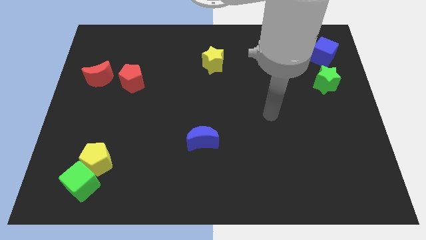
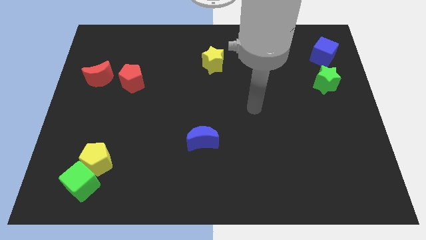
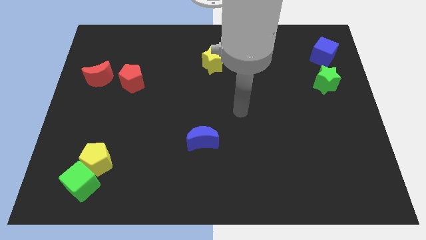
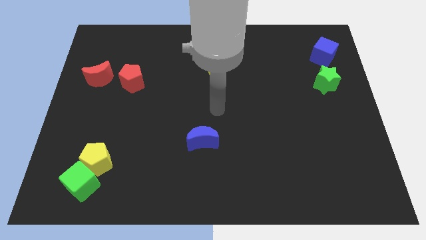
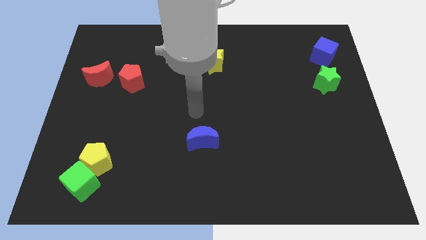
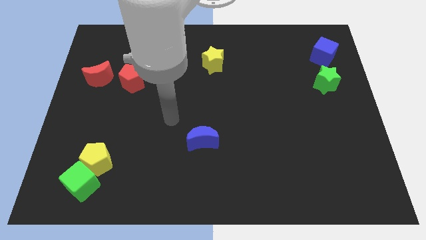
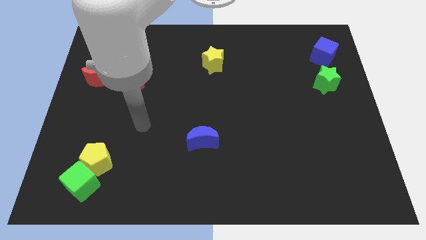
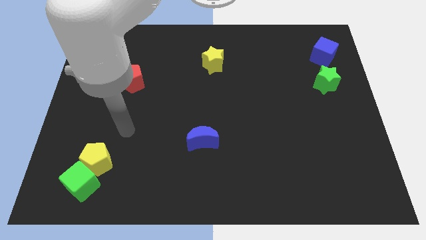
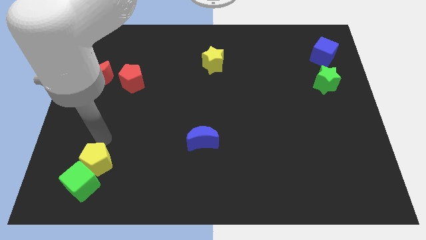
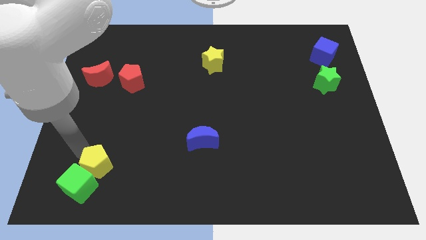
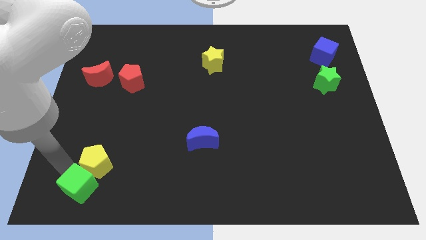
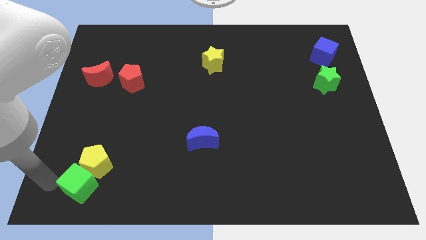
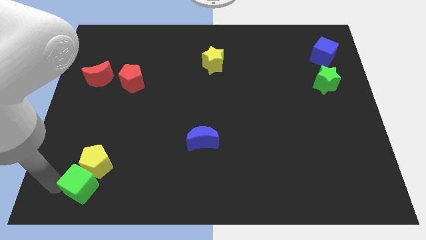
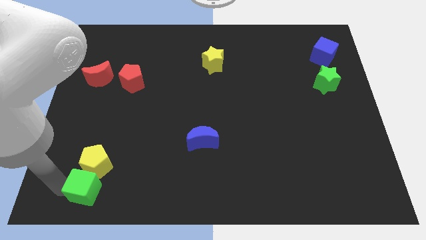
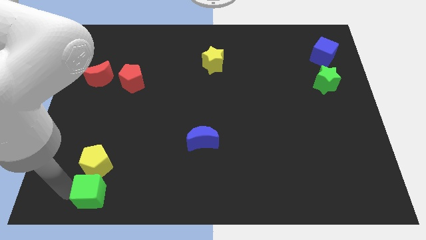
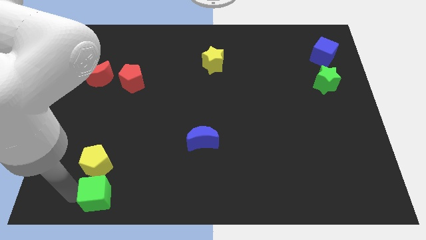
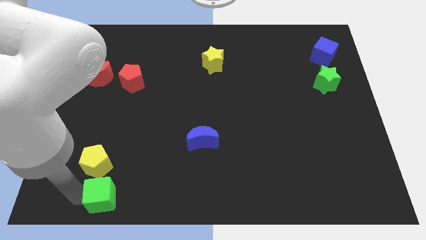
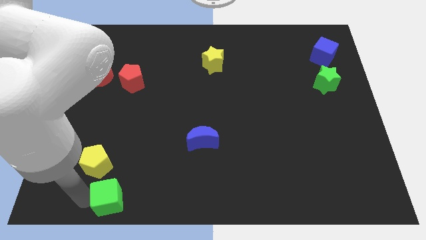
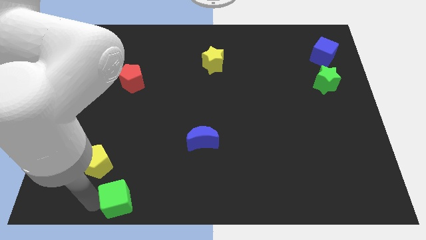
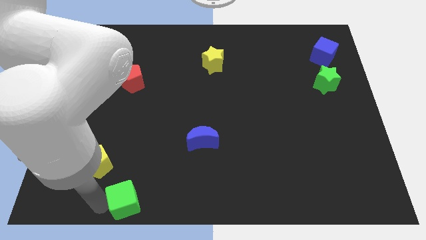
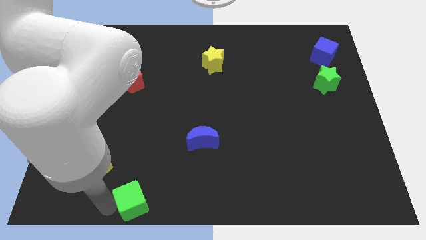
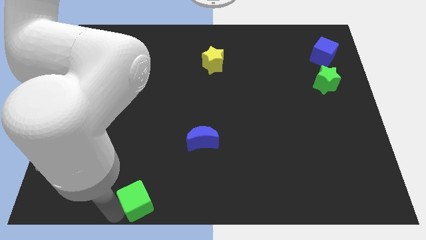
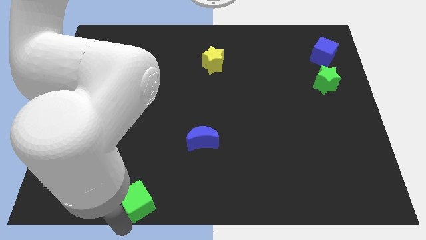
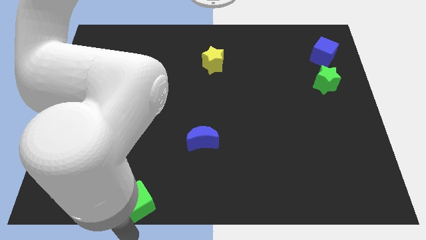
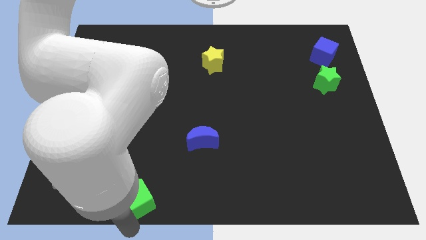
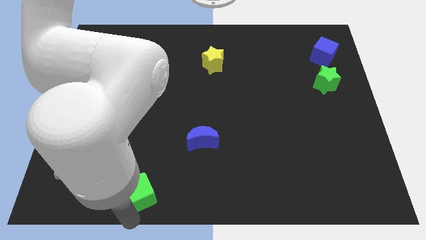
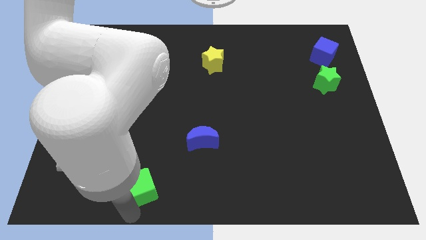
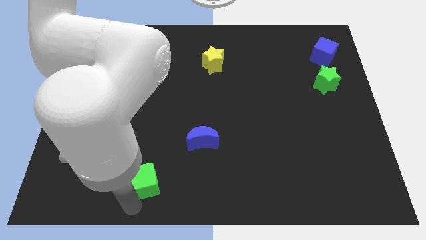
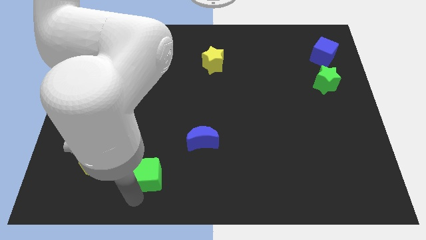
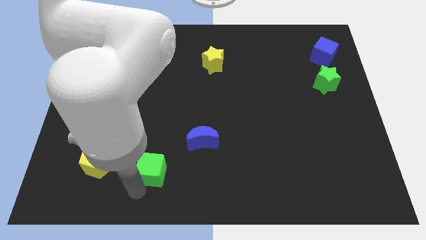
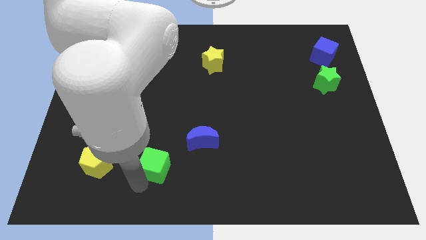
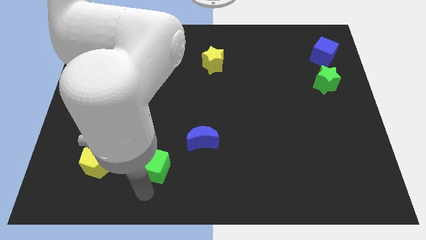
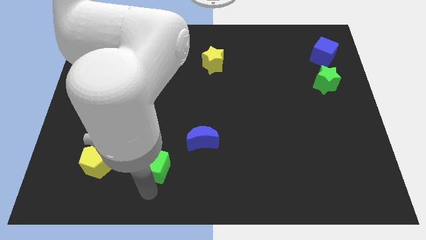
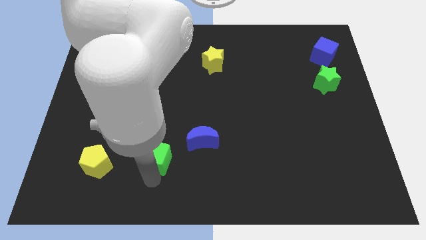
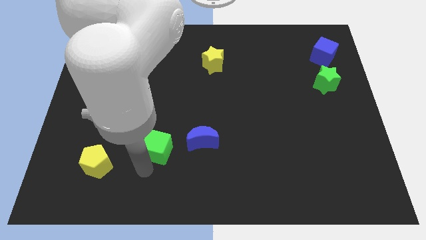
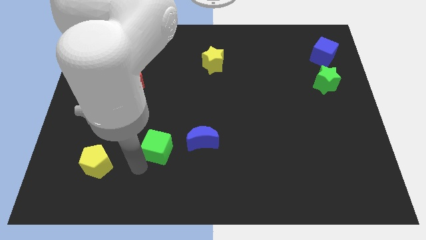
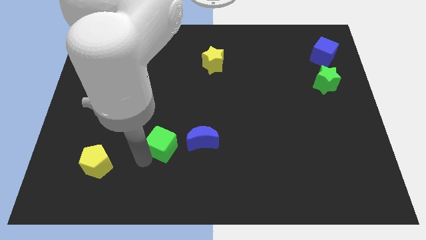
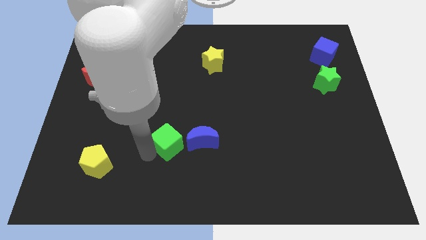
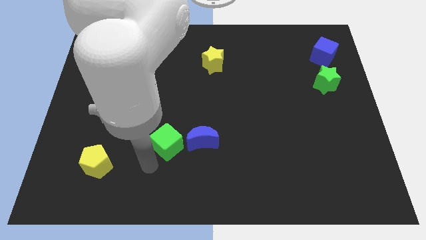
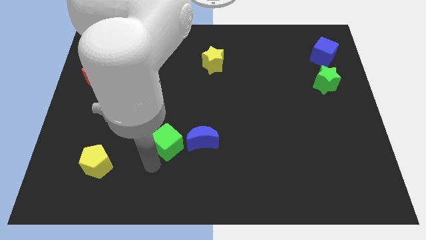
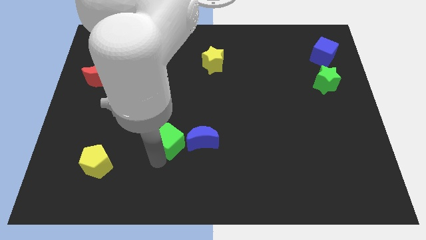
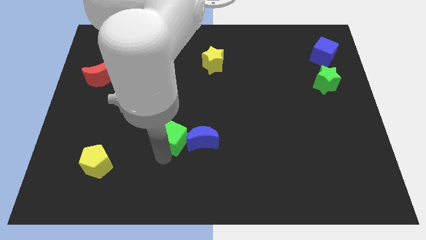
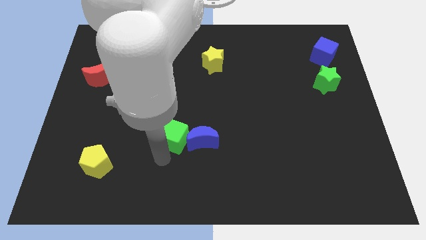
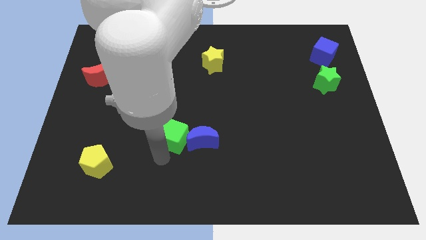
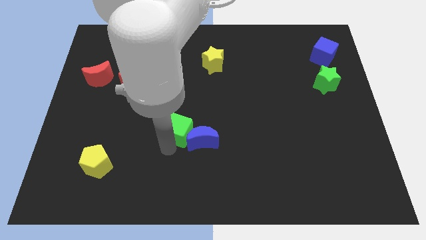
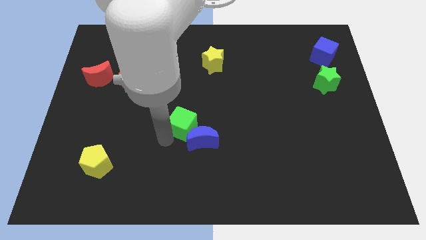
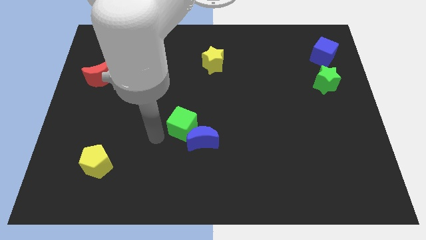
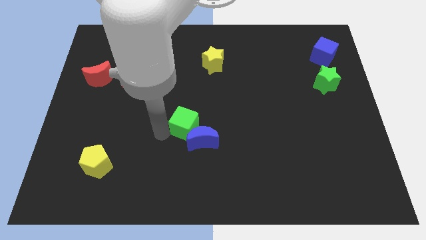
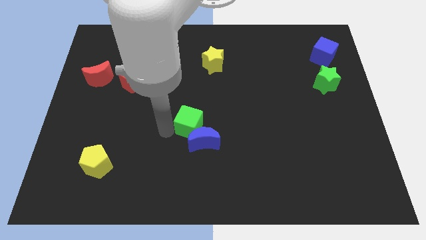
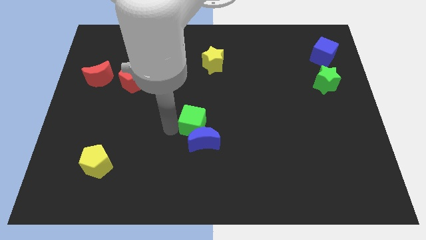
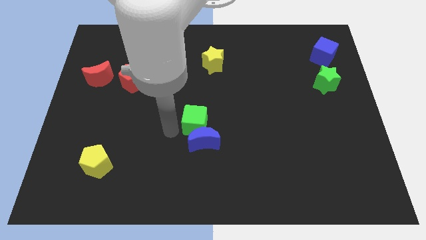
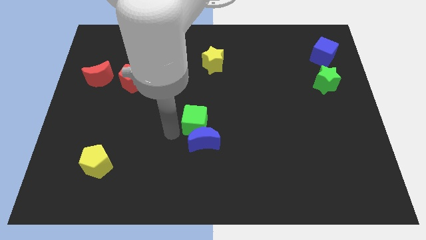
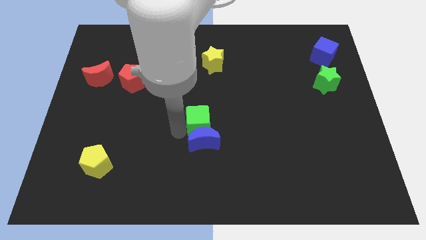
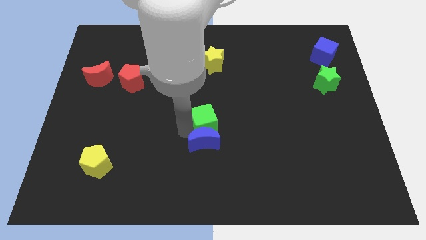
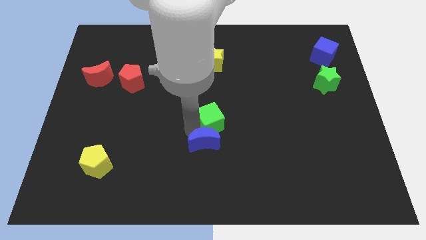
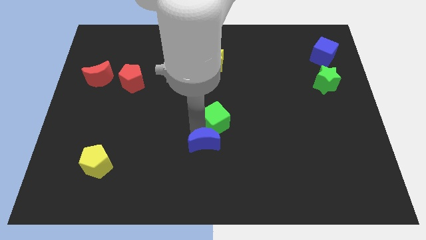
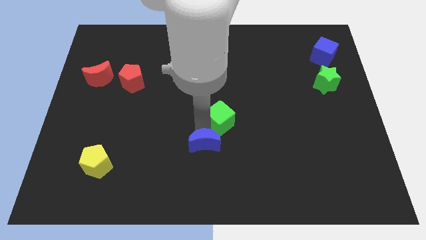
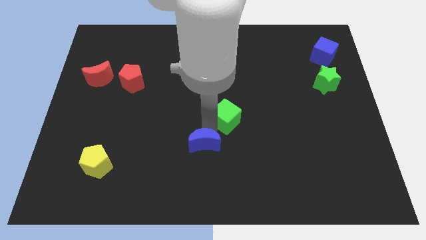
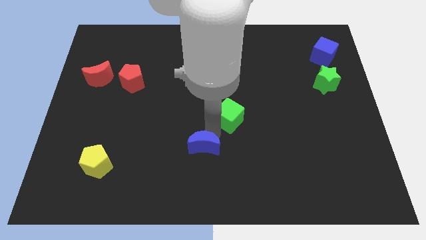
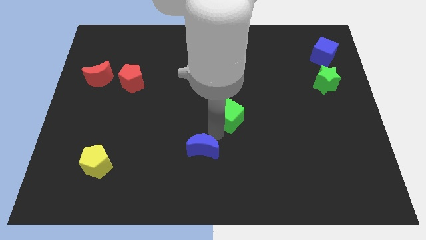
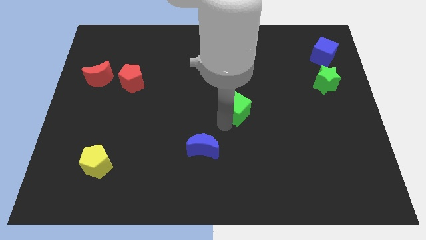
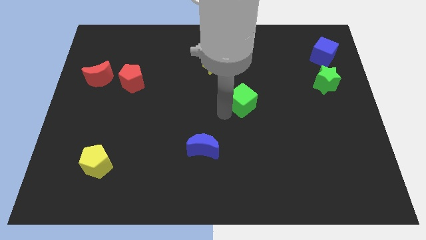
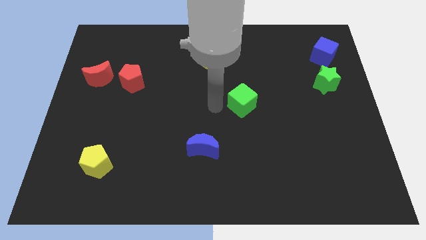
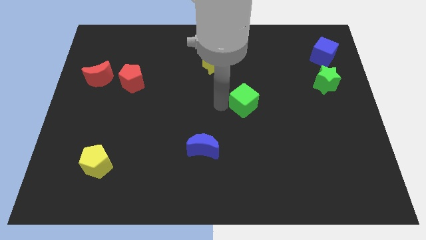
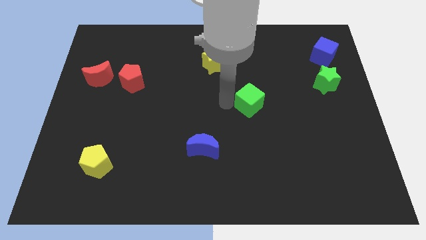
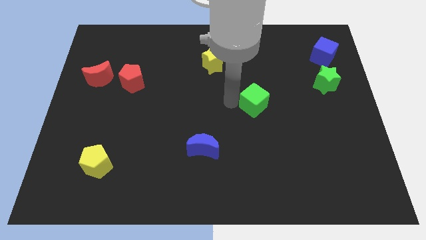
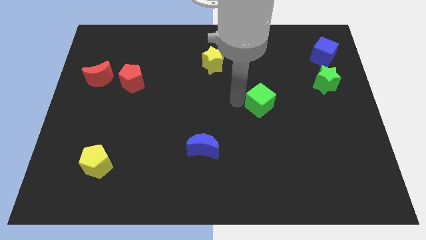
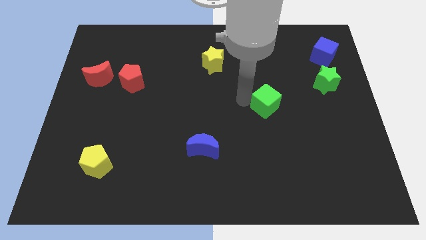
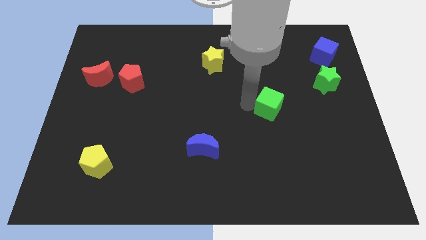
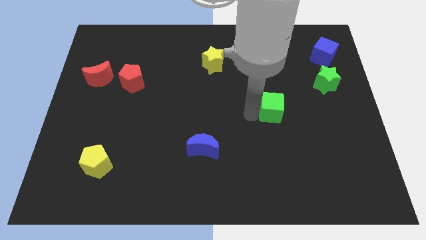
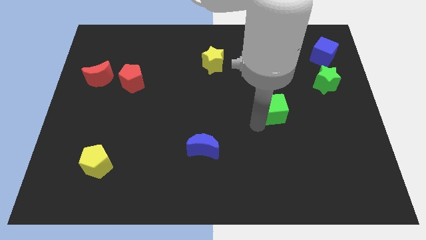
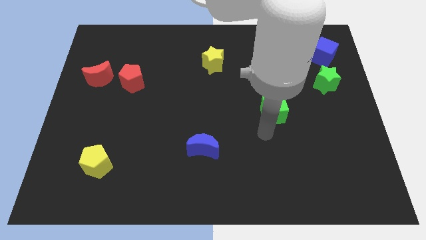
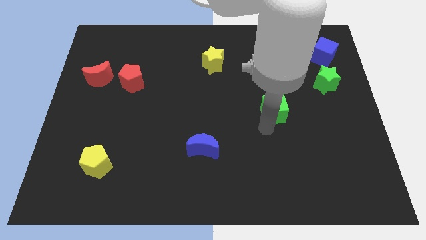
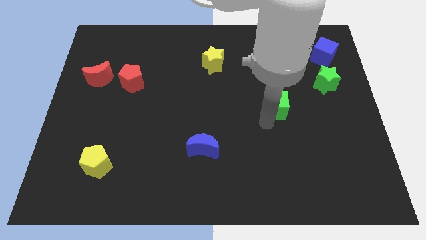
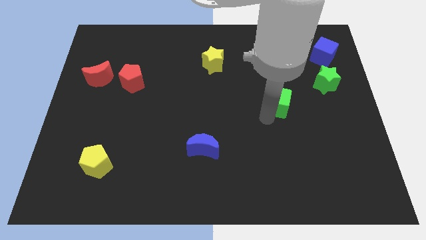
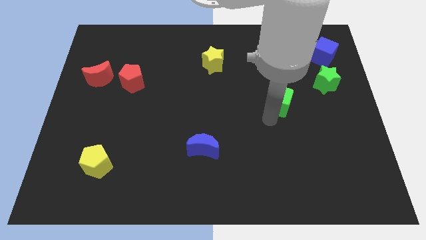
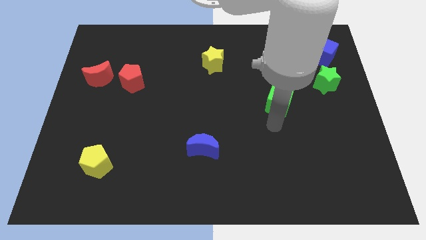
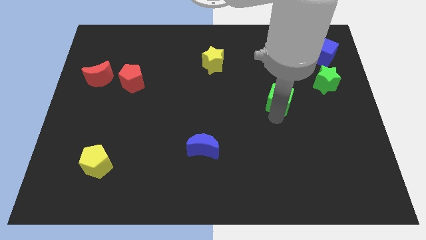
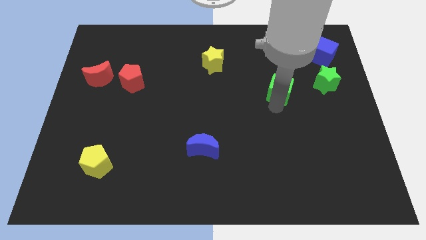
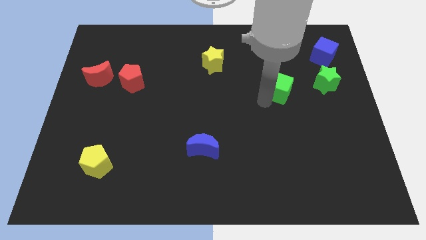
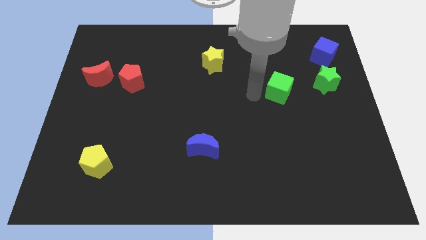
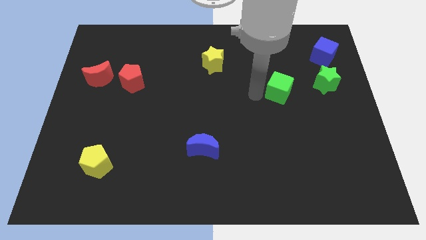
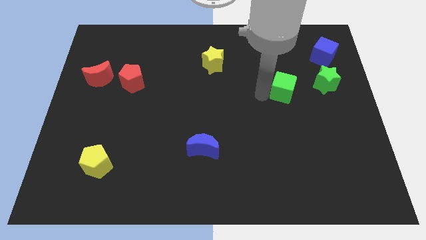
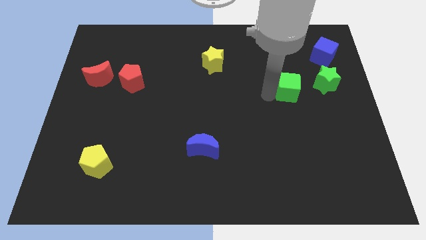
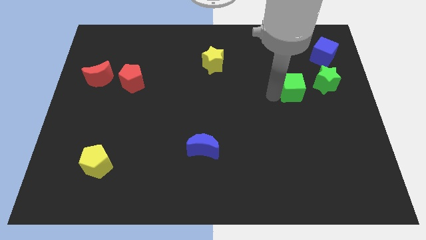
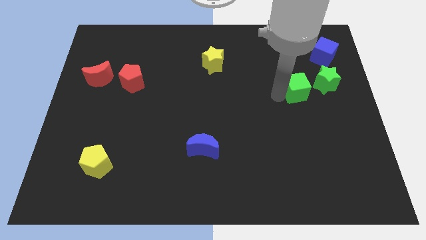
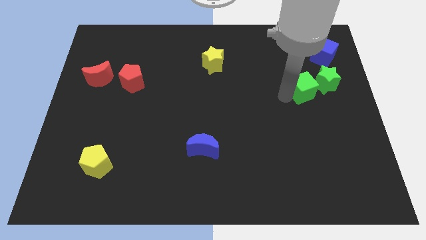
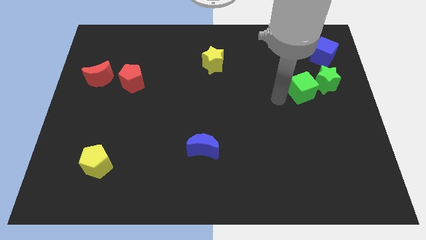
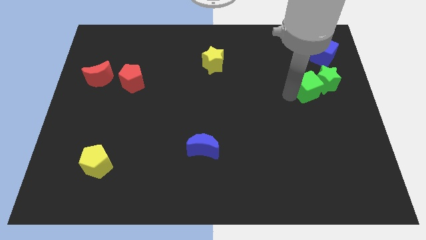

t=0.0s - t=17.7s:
slide the green cube next to the green star
